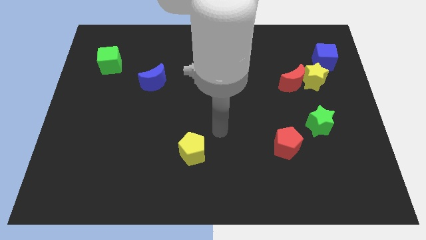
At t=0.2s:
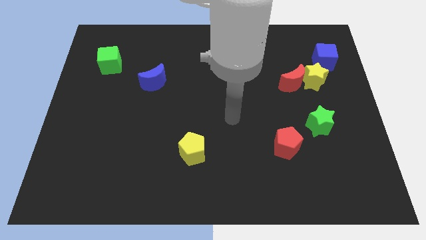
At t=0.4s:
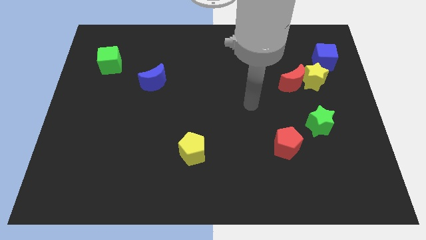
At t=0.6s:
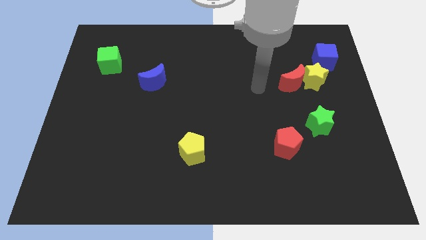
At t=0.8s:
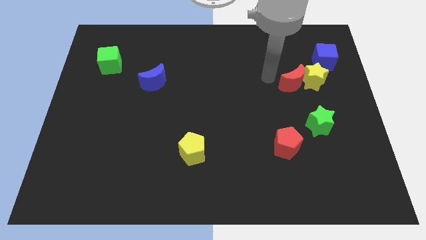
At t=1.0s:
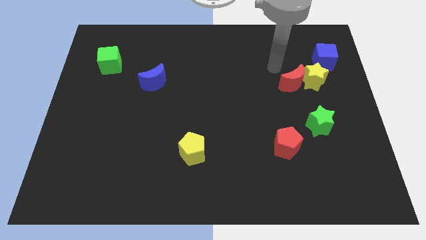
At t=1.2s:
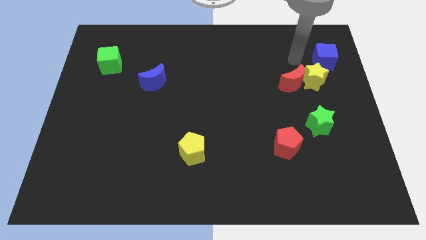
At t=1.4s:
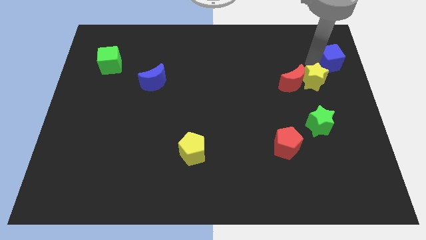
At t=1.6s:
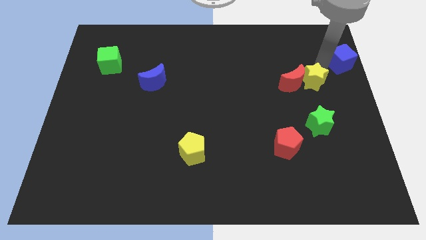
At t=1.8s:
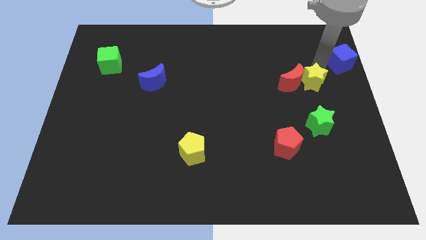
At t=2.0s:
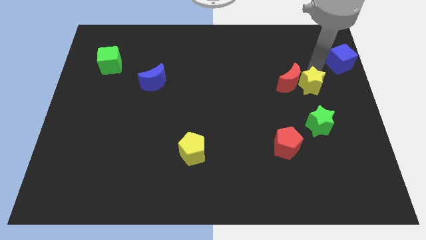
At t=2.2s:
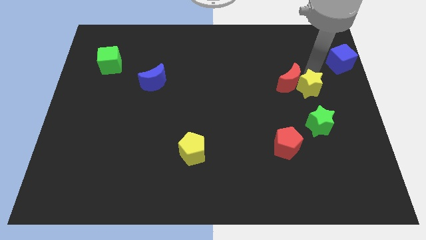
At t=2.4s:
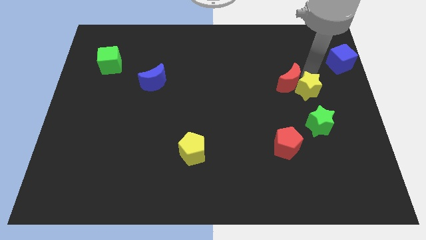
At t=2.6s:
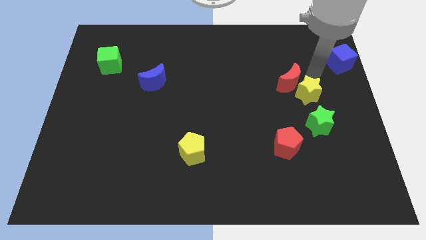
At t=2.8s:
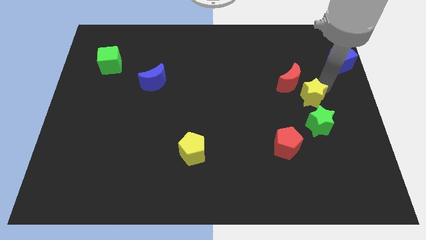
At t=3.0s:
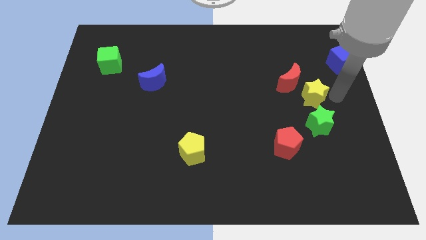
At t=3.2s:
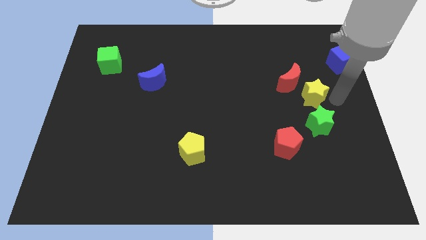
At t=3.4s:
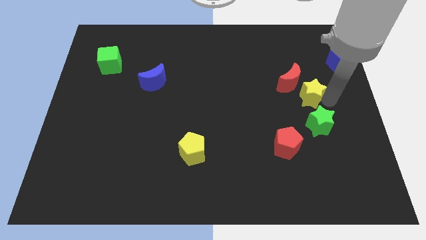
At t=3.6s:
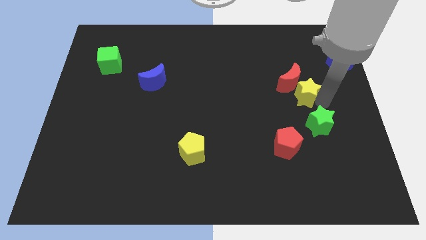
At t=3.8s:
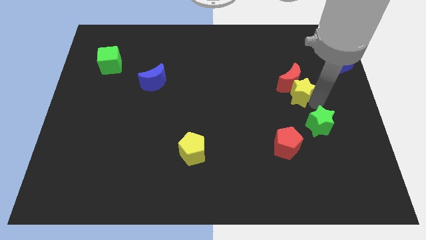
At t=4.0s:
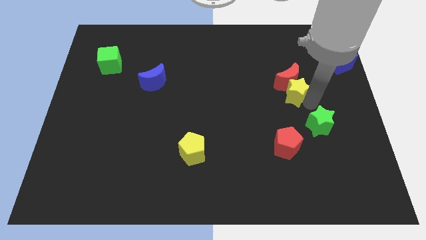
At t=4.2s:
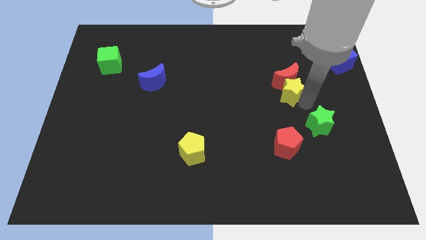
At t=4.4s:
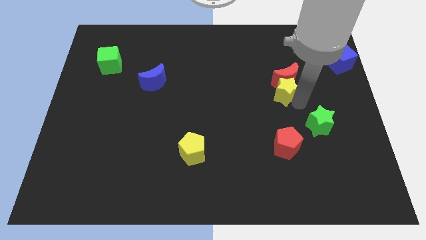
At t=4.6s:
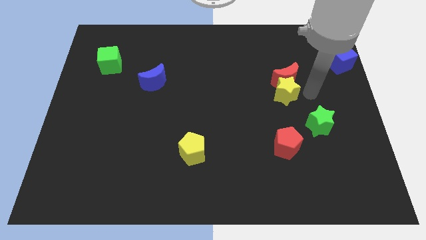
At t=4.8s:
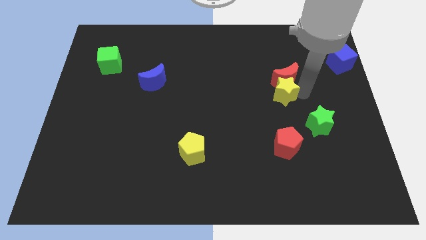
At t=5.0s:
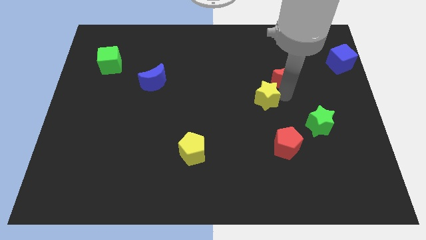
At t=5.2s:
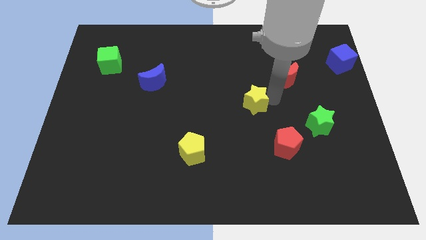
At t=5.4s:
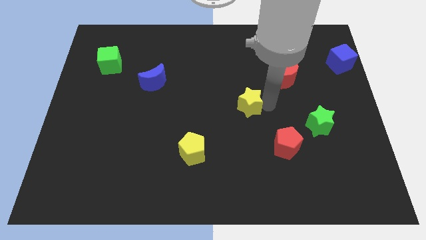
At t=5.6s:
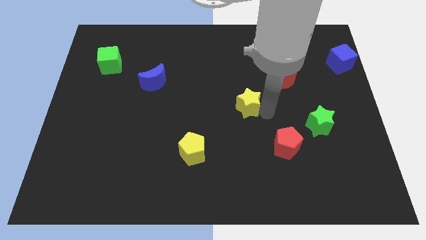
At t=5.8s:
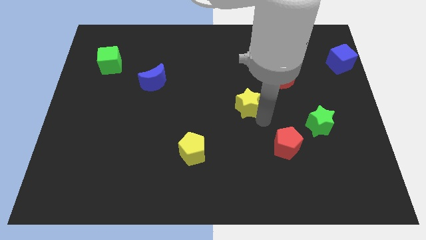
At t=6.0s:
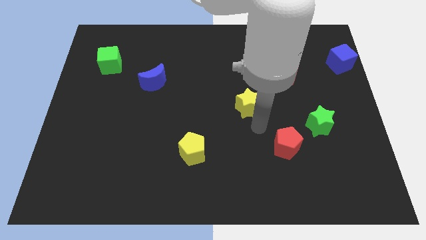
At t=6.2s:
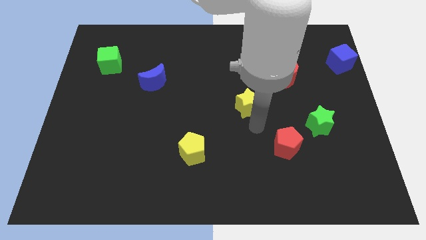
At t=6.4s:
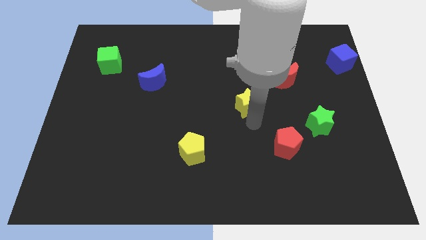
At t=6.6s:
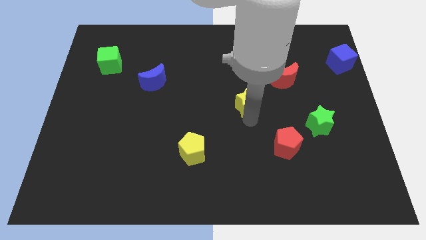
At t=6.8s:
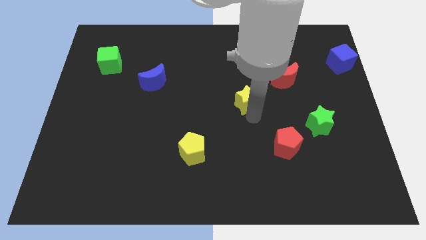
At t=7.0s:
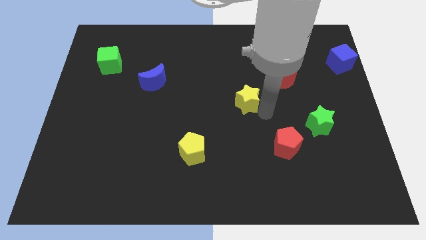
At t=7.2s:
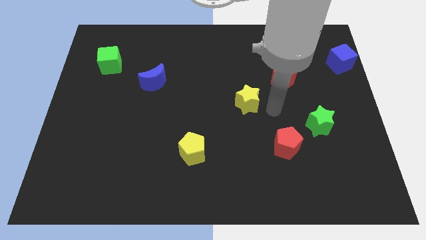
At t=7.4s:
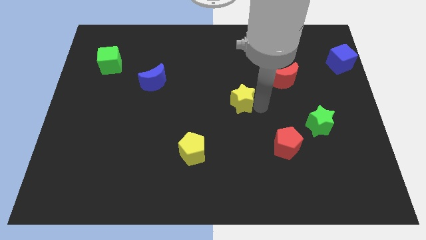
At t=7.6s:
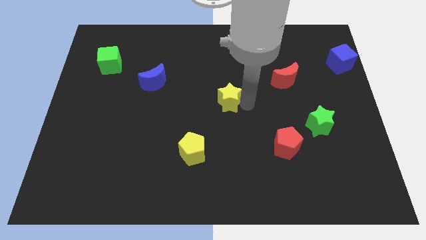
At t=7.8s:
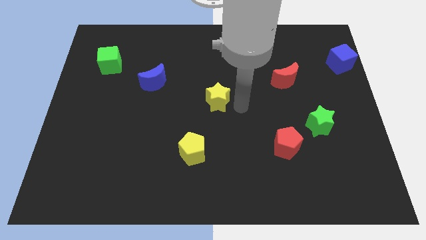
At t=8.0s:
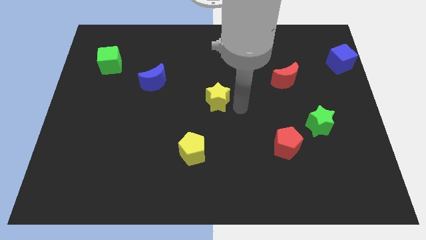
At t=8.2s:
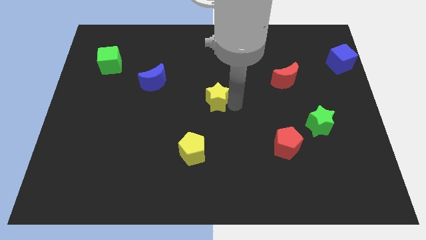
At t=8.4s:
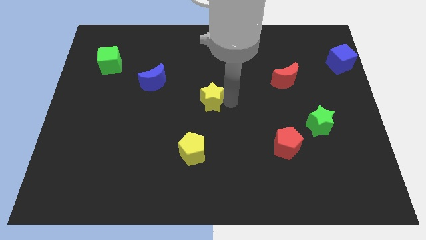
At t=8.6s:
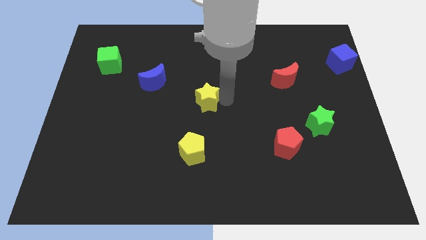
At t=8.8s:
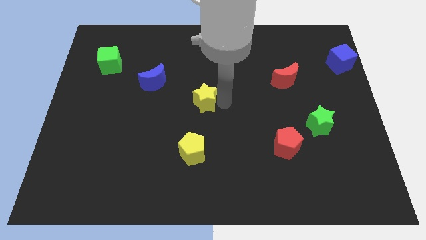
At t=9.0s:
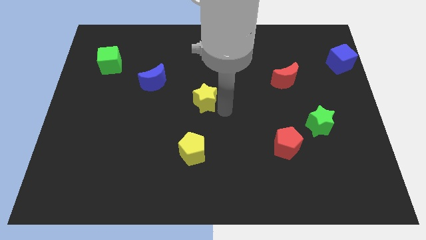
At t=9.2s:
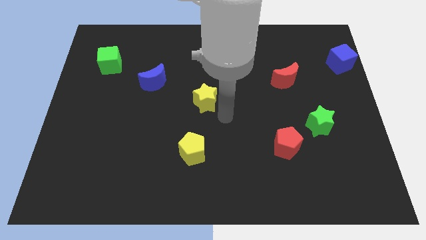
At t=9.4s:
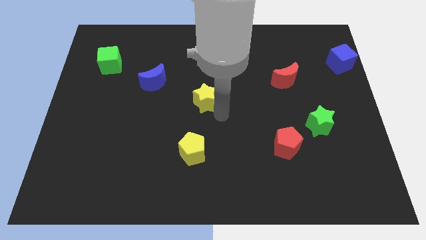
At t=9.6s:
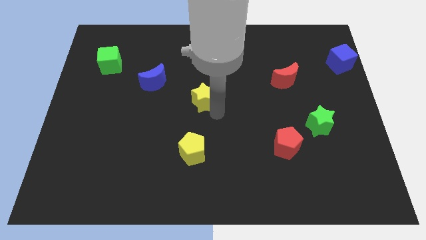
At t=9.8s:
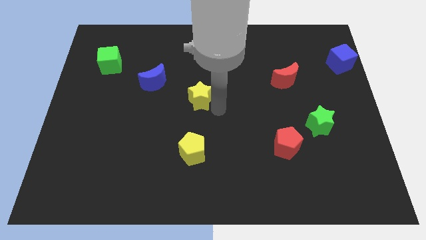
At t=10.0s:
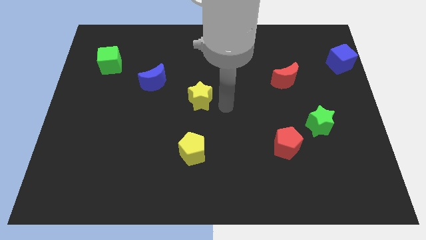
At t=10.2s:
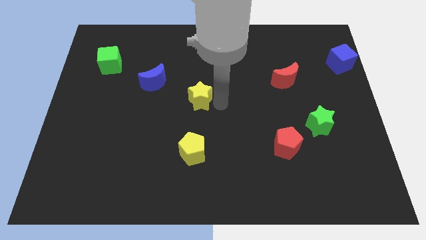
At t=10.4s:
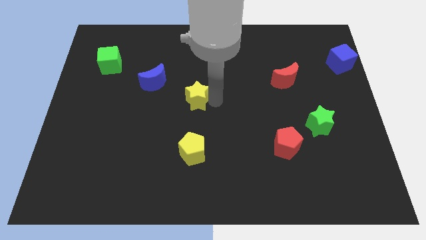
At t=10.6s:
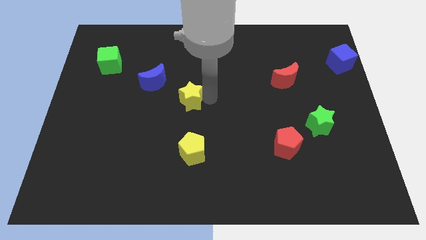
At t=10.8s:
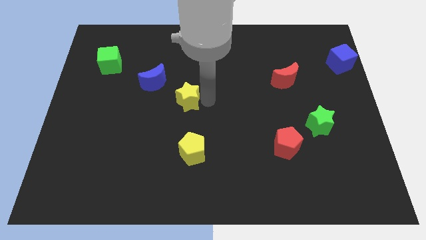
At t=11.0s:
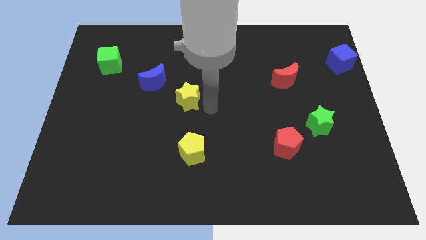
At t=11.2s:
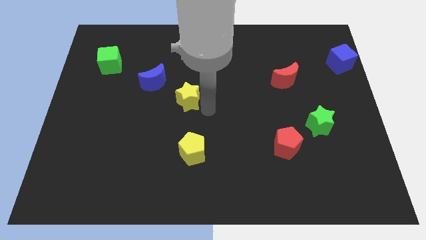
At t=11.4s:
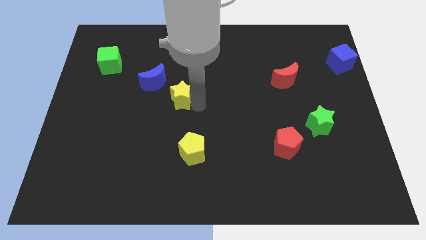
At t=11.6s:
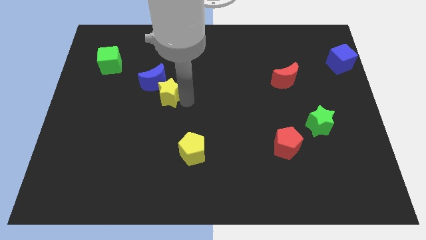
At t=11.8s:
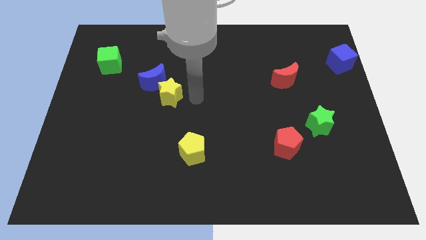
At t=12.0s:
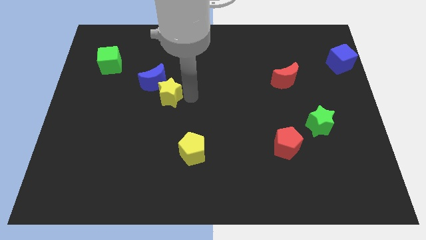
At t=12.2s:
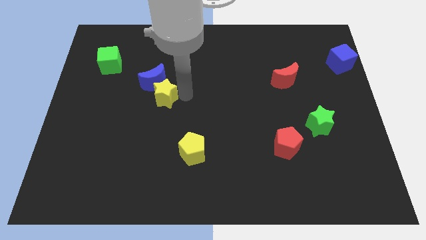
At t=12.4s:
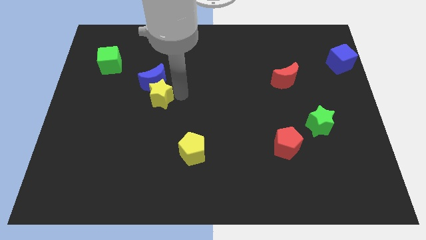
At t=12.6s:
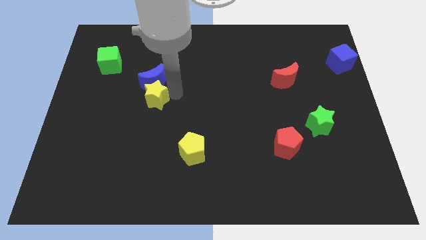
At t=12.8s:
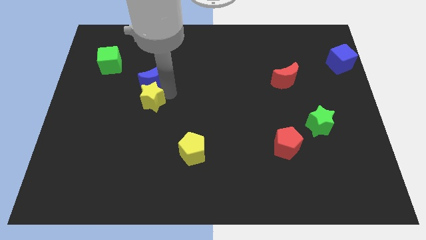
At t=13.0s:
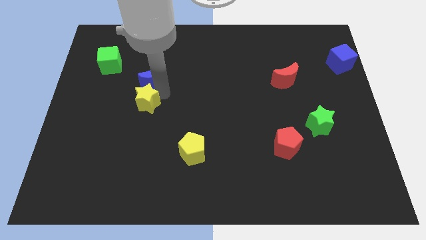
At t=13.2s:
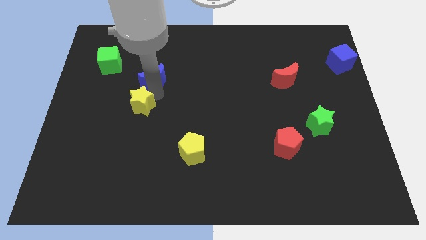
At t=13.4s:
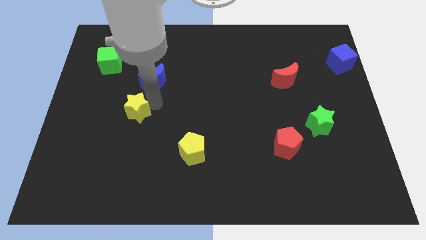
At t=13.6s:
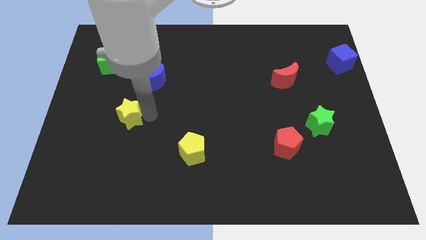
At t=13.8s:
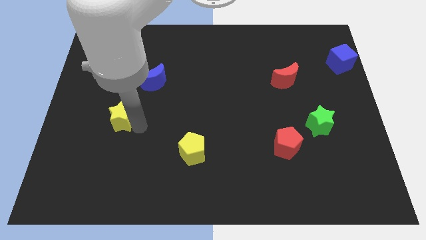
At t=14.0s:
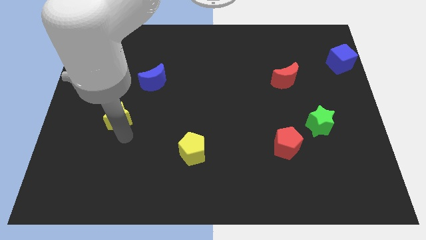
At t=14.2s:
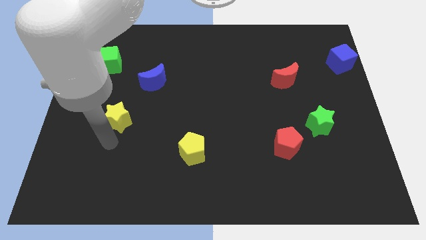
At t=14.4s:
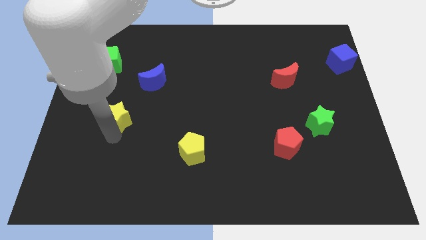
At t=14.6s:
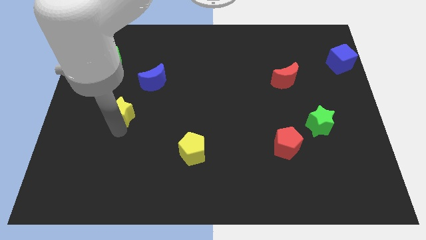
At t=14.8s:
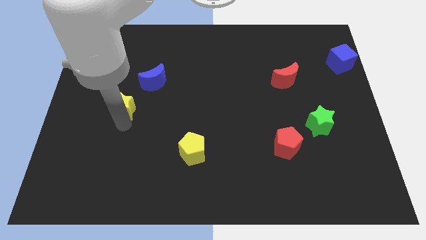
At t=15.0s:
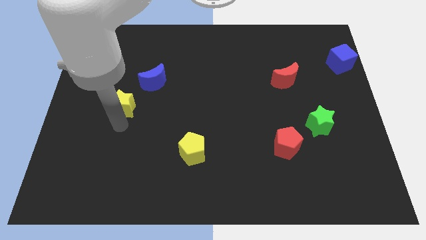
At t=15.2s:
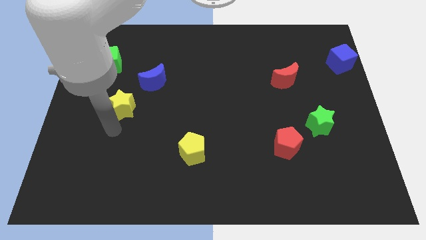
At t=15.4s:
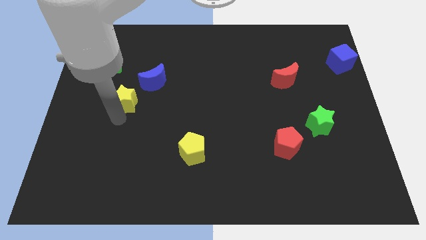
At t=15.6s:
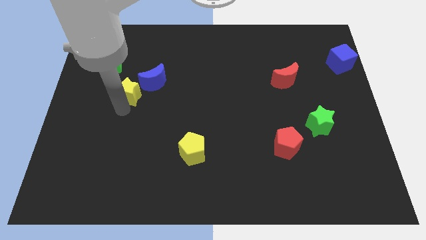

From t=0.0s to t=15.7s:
push the yellow star left of the blue moon
